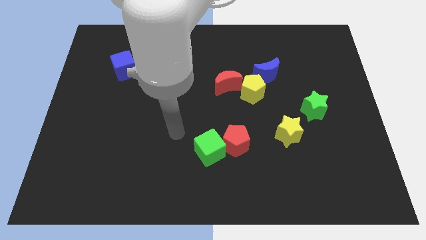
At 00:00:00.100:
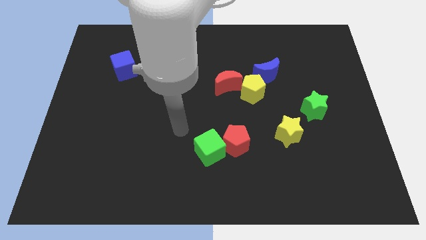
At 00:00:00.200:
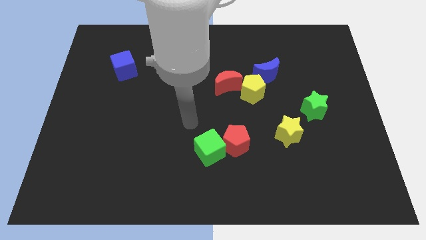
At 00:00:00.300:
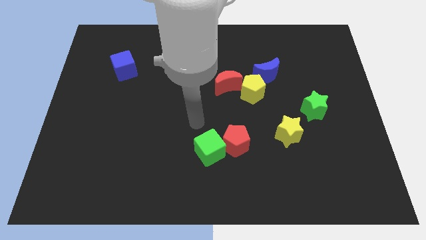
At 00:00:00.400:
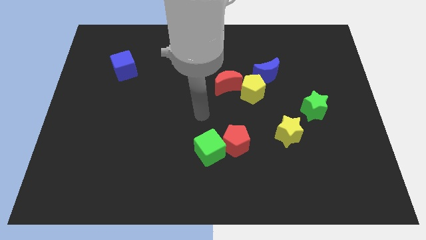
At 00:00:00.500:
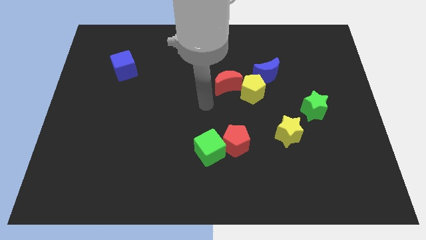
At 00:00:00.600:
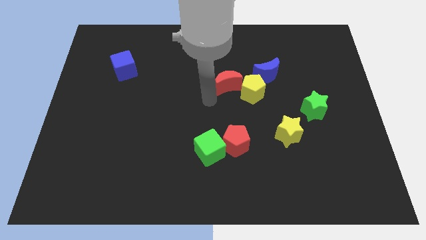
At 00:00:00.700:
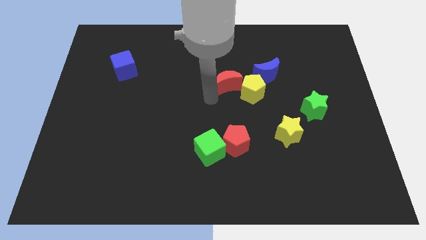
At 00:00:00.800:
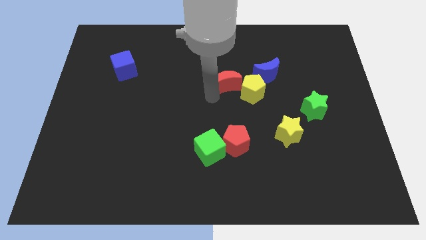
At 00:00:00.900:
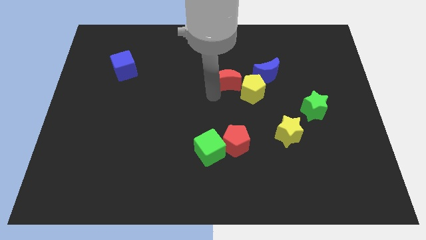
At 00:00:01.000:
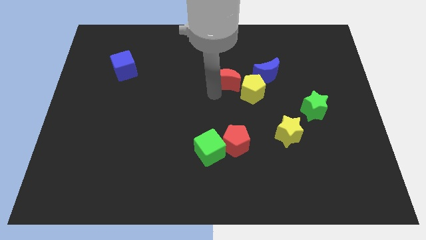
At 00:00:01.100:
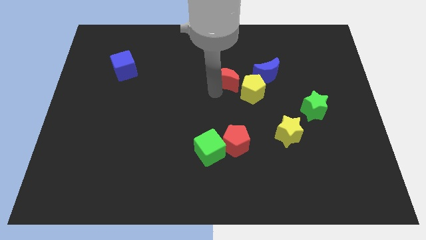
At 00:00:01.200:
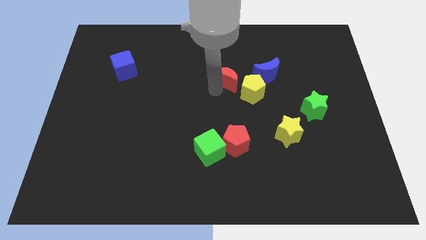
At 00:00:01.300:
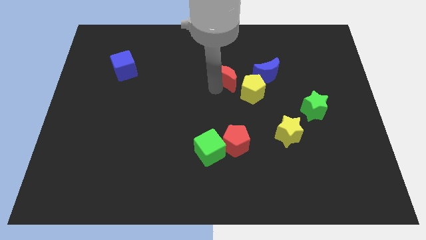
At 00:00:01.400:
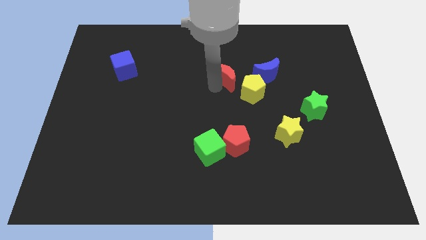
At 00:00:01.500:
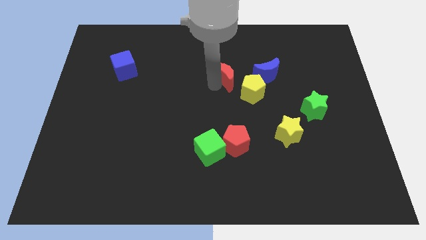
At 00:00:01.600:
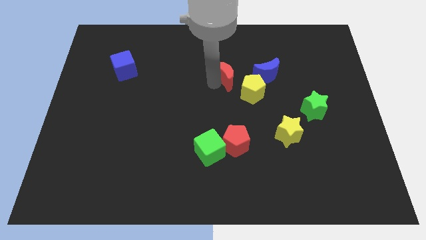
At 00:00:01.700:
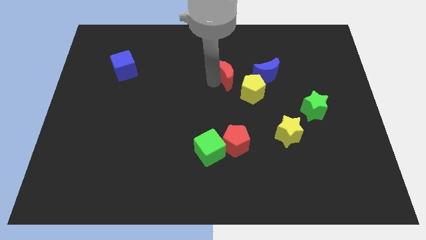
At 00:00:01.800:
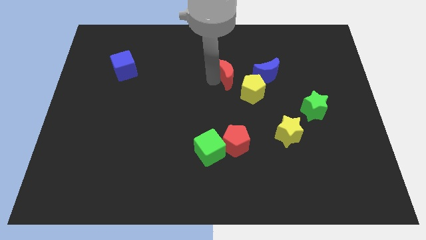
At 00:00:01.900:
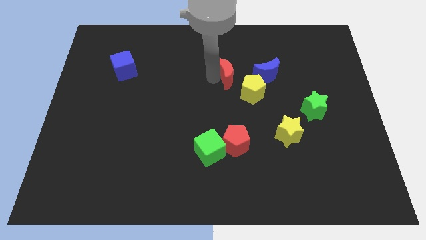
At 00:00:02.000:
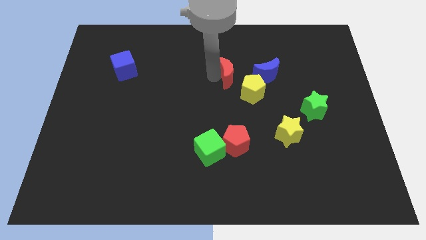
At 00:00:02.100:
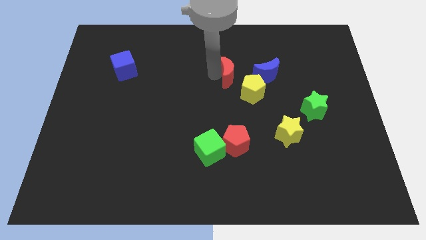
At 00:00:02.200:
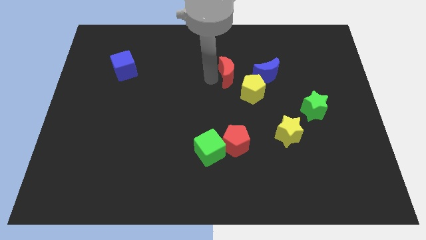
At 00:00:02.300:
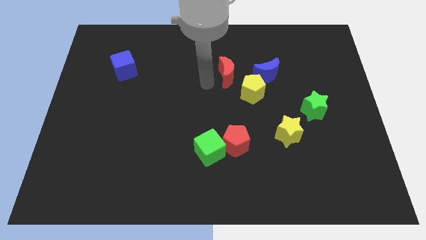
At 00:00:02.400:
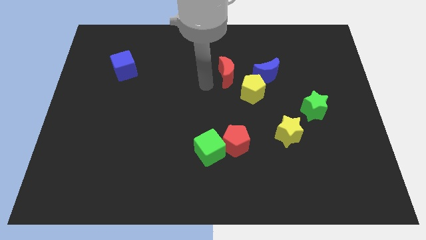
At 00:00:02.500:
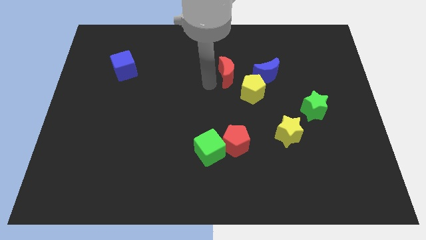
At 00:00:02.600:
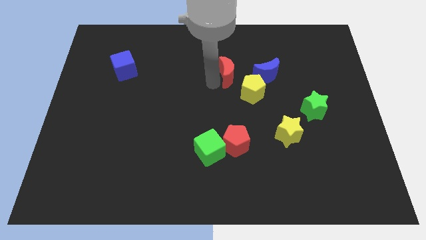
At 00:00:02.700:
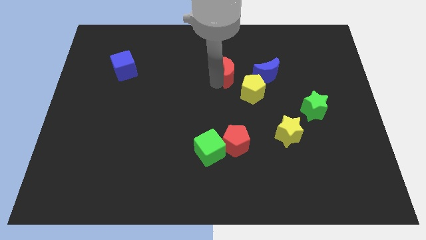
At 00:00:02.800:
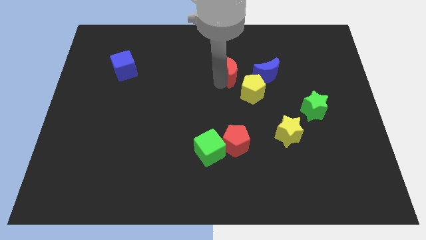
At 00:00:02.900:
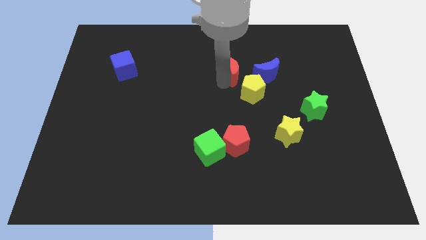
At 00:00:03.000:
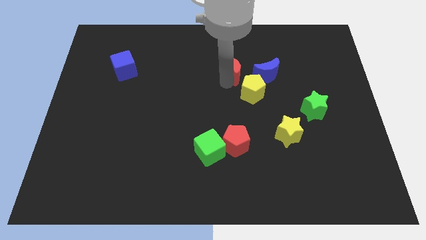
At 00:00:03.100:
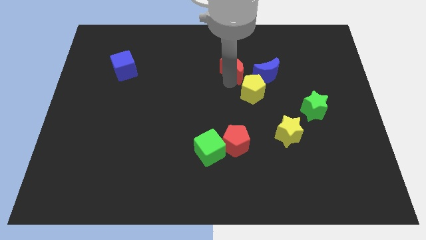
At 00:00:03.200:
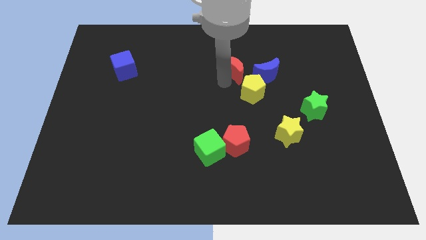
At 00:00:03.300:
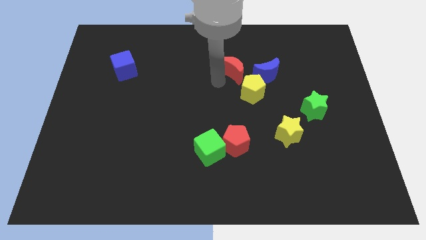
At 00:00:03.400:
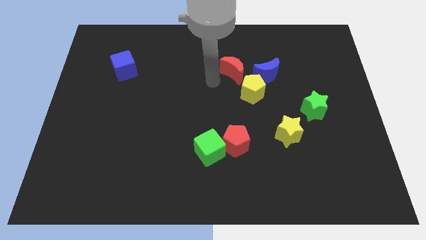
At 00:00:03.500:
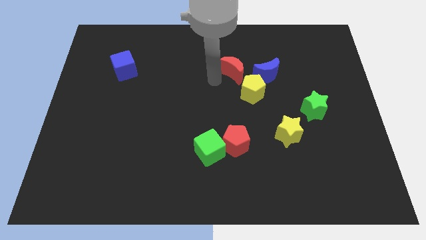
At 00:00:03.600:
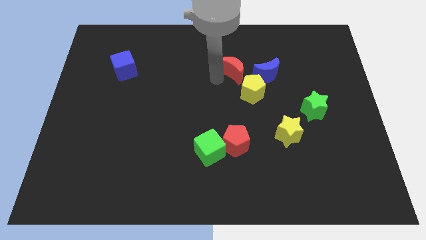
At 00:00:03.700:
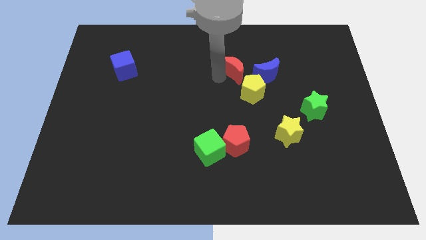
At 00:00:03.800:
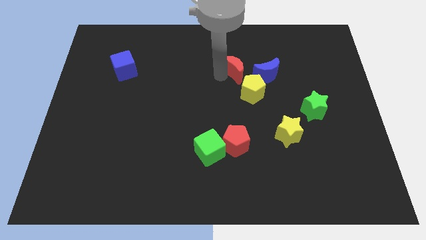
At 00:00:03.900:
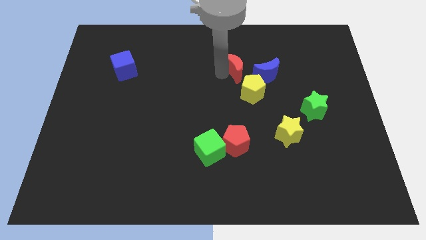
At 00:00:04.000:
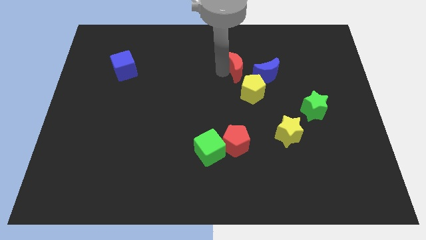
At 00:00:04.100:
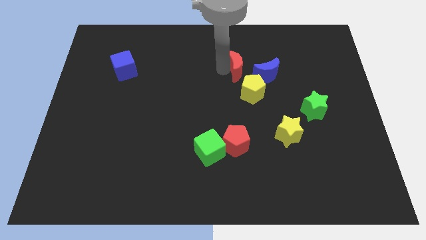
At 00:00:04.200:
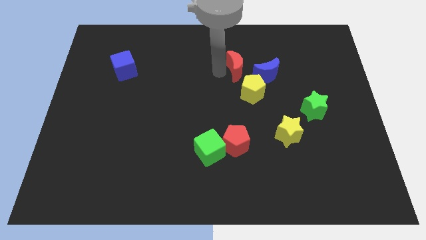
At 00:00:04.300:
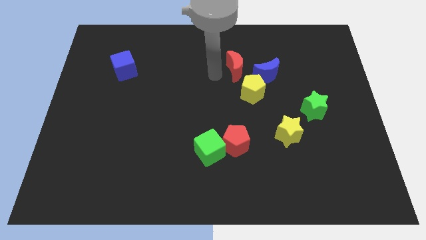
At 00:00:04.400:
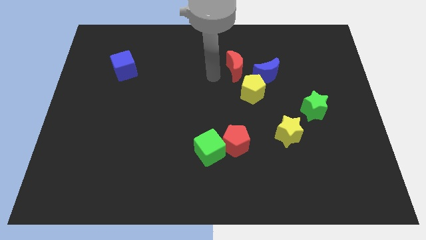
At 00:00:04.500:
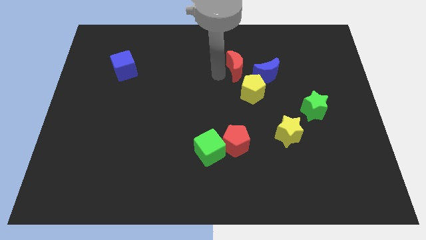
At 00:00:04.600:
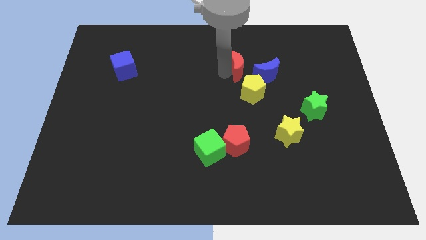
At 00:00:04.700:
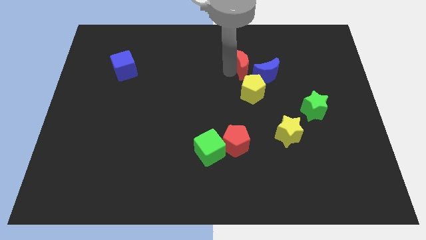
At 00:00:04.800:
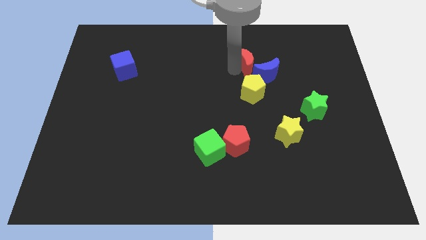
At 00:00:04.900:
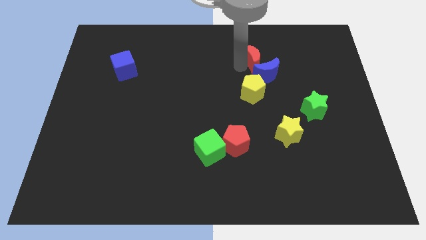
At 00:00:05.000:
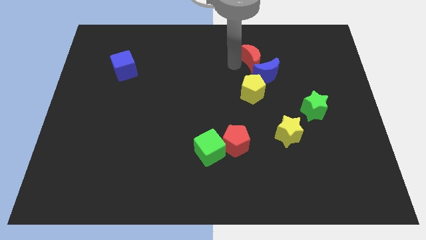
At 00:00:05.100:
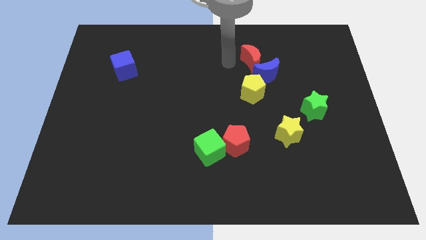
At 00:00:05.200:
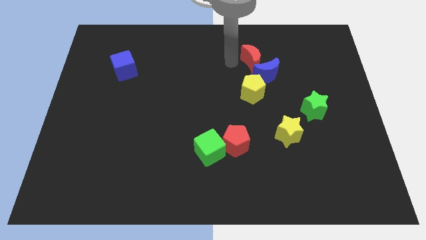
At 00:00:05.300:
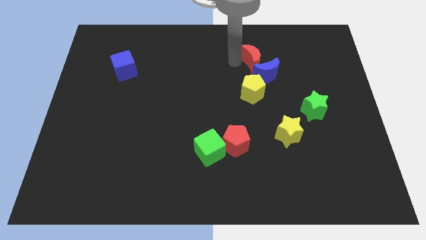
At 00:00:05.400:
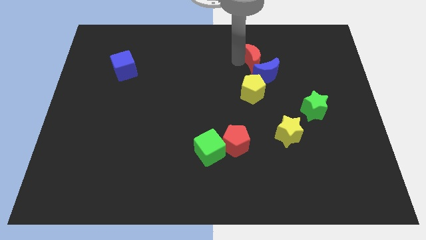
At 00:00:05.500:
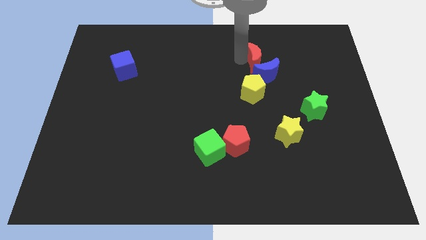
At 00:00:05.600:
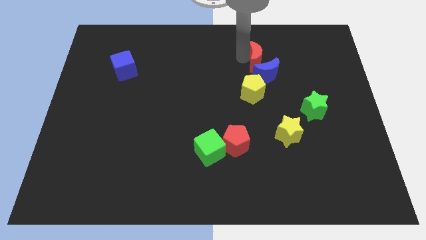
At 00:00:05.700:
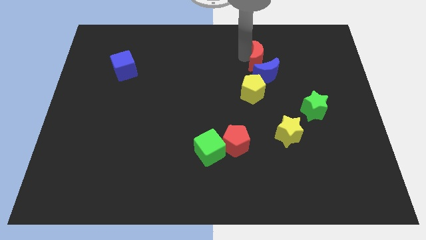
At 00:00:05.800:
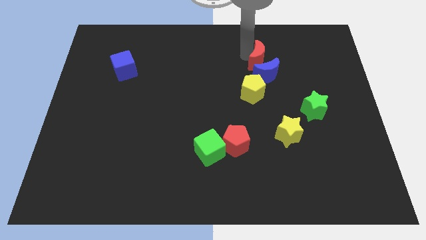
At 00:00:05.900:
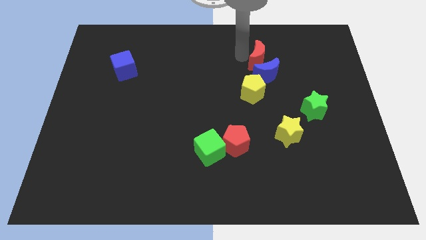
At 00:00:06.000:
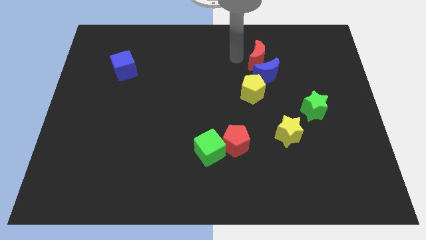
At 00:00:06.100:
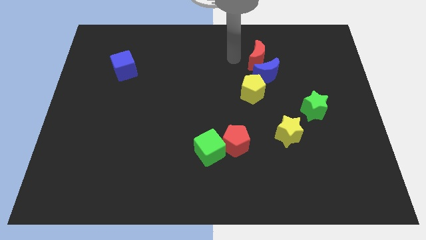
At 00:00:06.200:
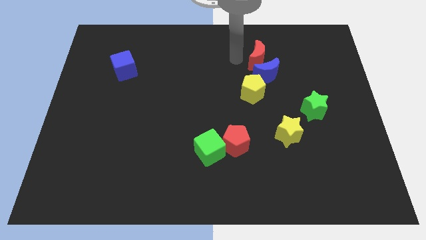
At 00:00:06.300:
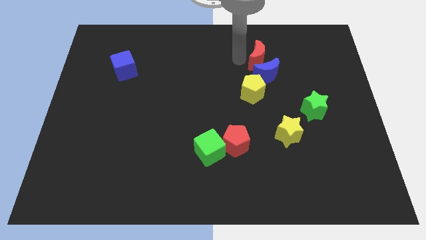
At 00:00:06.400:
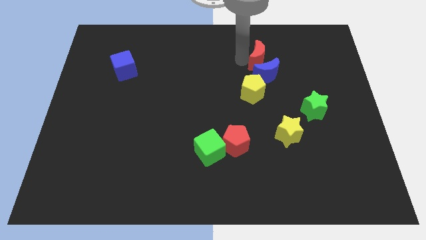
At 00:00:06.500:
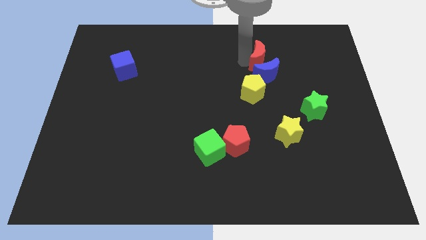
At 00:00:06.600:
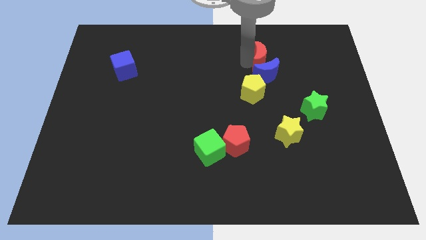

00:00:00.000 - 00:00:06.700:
push the red moon to the top right side of the blue moon

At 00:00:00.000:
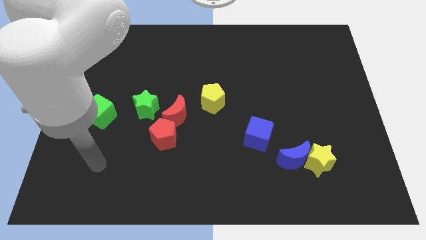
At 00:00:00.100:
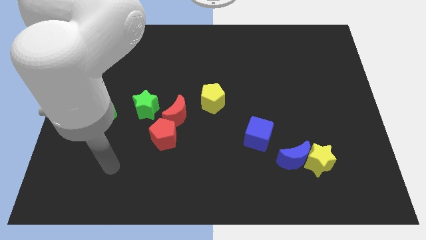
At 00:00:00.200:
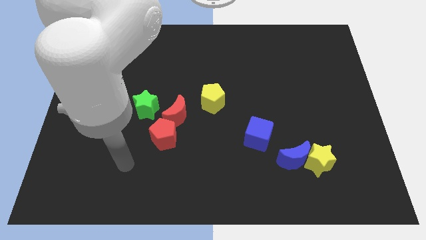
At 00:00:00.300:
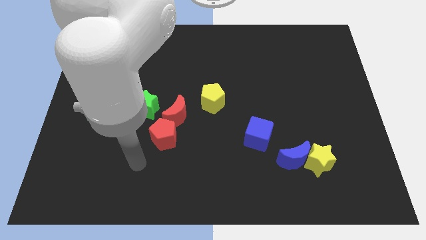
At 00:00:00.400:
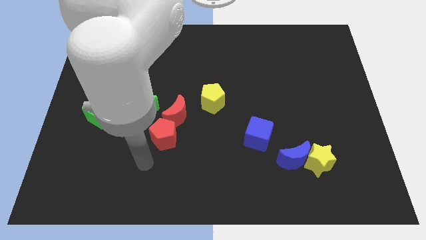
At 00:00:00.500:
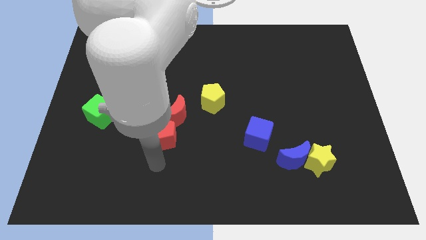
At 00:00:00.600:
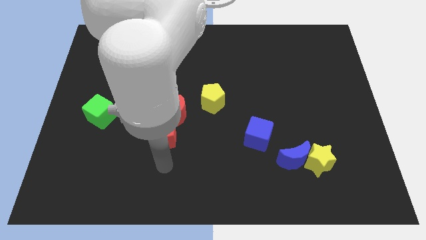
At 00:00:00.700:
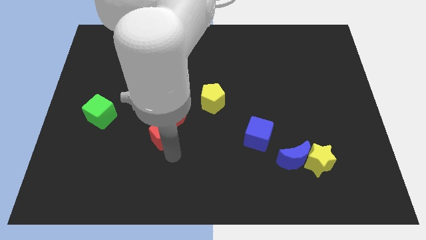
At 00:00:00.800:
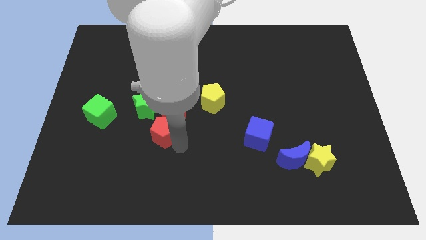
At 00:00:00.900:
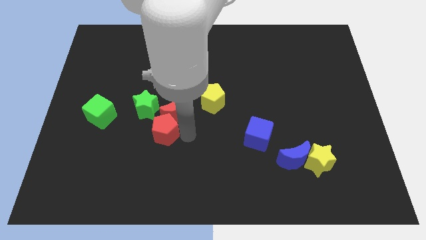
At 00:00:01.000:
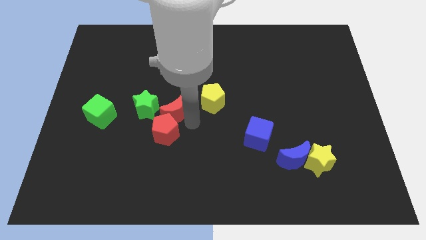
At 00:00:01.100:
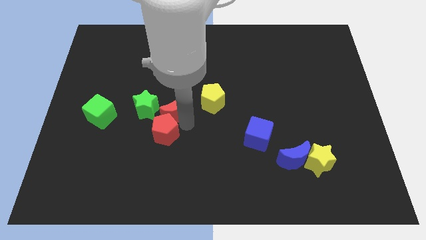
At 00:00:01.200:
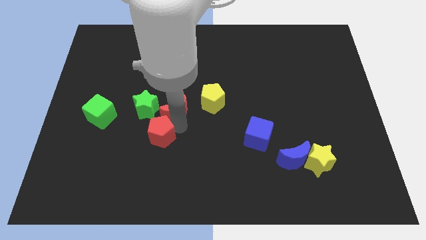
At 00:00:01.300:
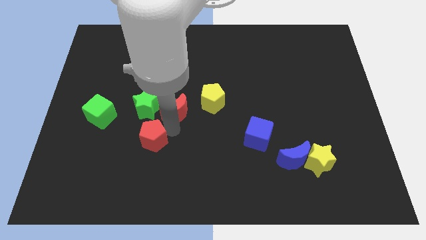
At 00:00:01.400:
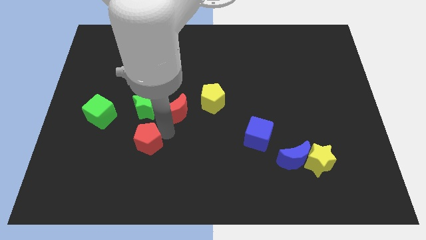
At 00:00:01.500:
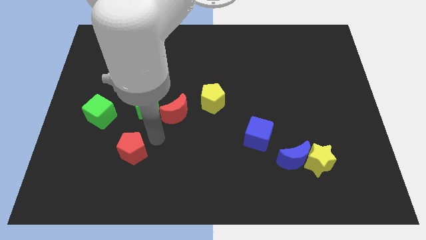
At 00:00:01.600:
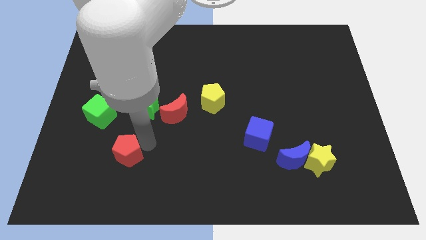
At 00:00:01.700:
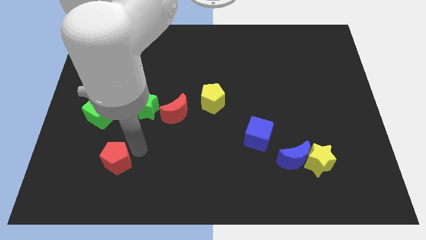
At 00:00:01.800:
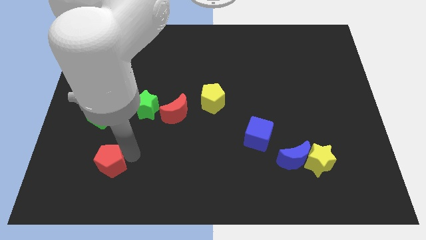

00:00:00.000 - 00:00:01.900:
move the red pentagon to the bottom side of the green cube
